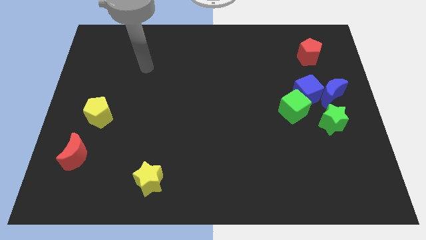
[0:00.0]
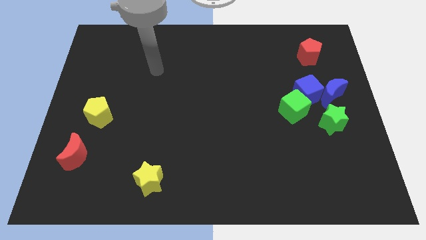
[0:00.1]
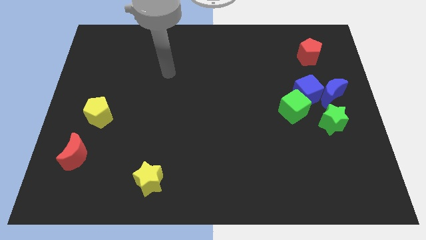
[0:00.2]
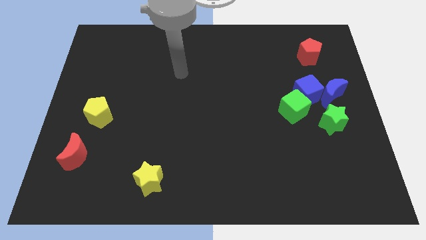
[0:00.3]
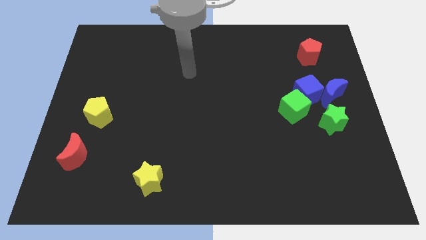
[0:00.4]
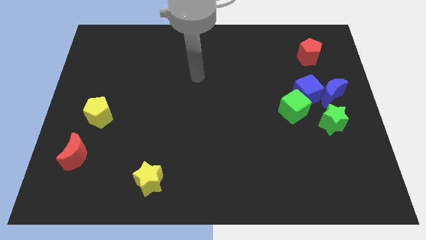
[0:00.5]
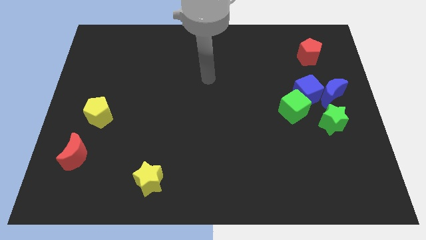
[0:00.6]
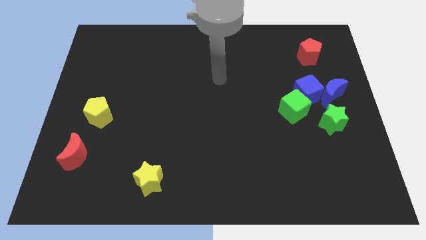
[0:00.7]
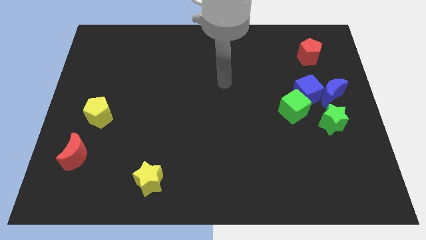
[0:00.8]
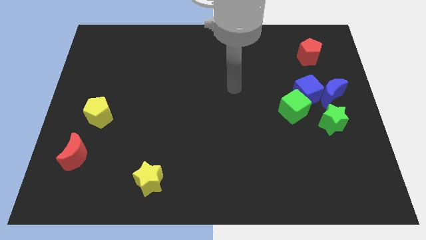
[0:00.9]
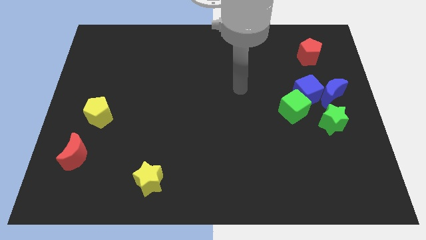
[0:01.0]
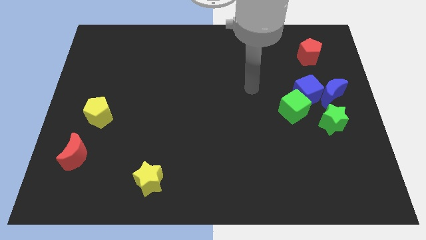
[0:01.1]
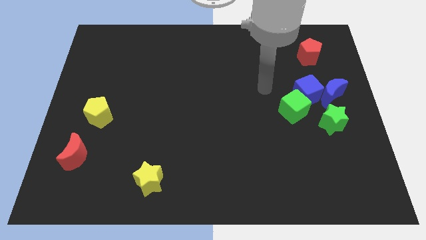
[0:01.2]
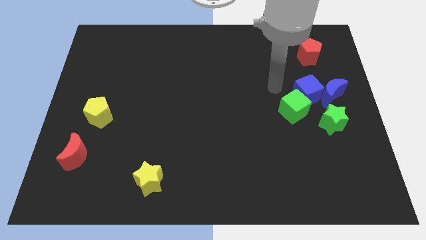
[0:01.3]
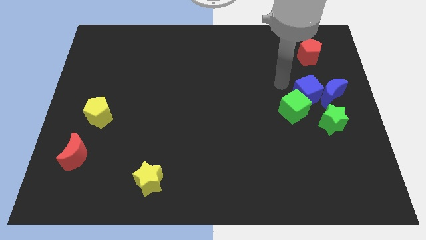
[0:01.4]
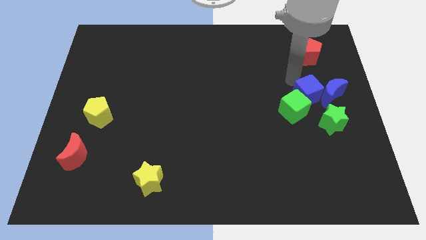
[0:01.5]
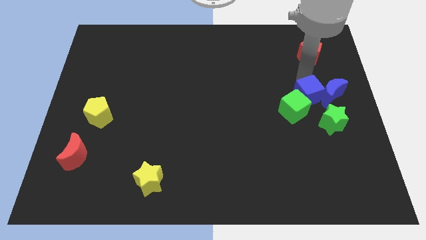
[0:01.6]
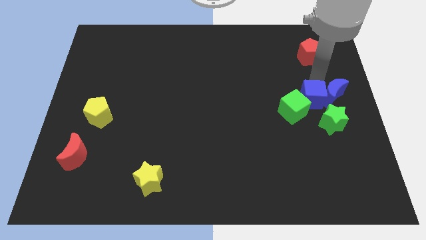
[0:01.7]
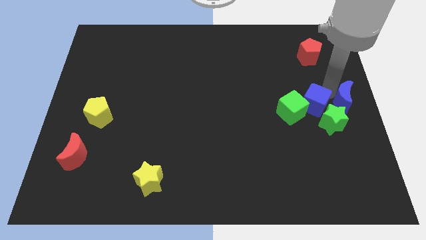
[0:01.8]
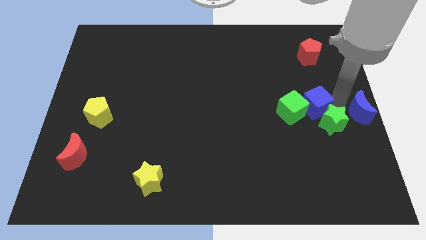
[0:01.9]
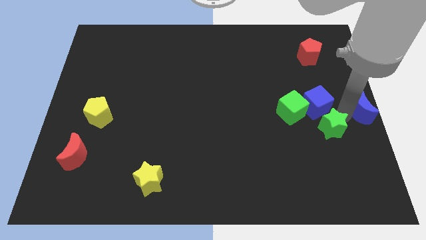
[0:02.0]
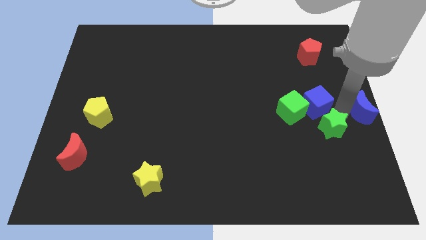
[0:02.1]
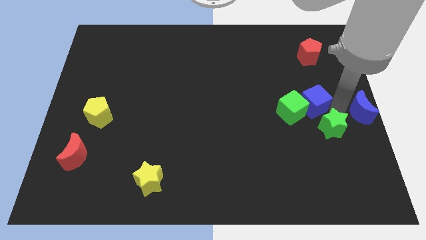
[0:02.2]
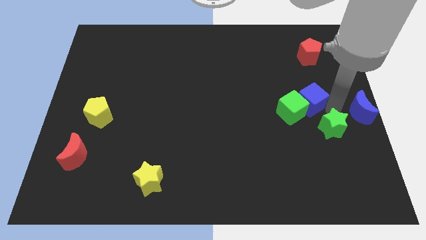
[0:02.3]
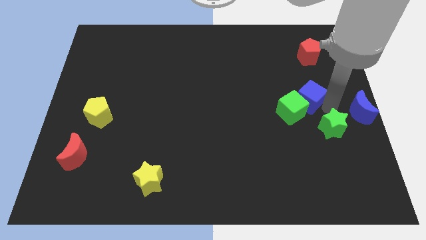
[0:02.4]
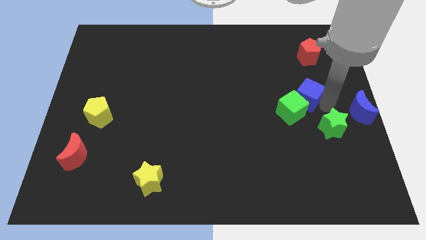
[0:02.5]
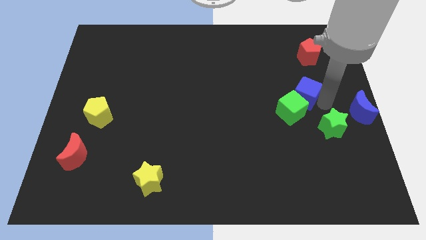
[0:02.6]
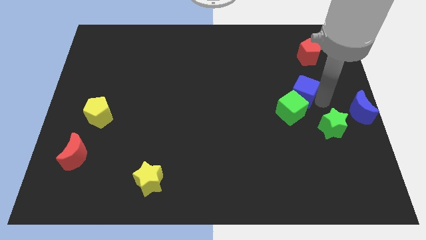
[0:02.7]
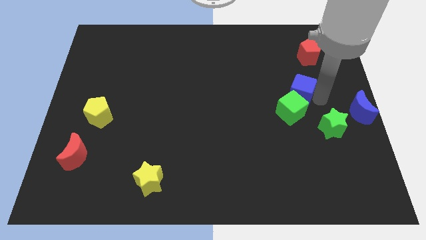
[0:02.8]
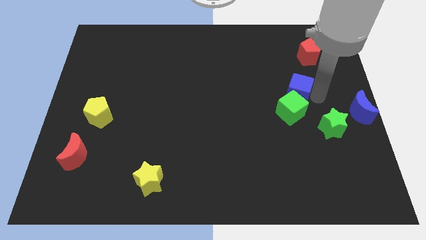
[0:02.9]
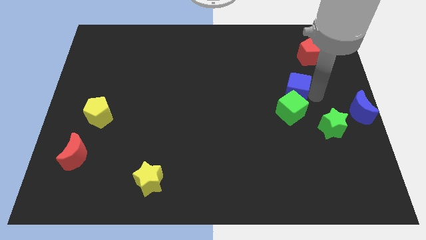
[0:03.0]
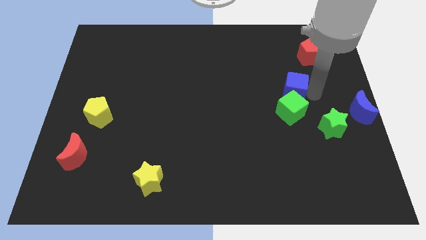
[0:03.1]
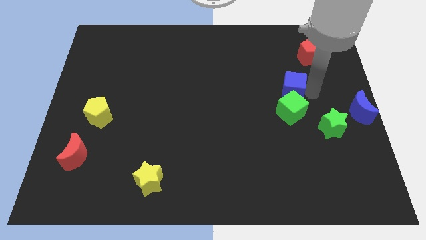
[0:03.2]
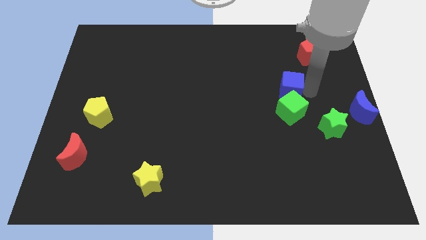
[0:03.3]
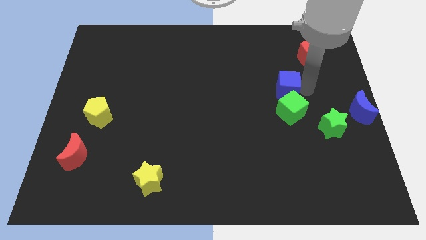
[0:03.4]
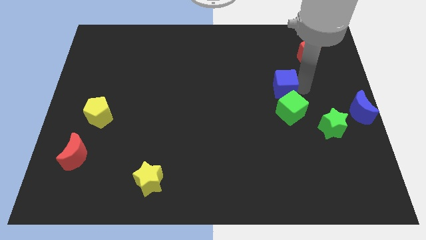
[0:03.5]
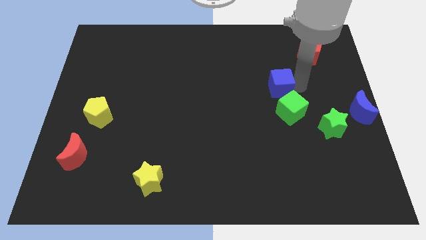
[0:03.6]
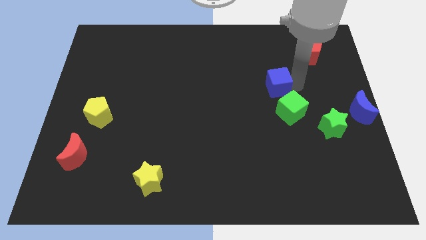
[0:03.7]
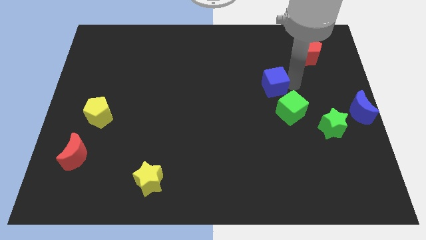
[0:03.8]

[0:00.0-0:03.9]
move the blue cube left a little bit

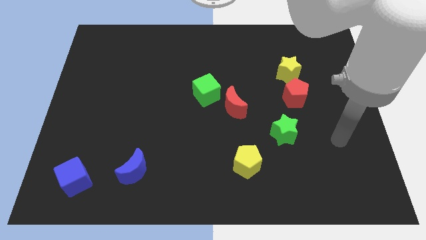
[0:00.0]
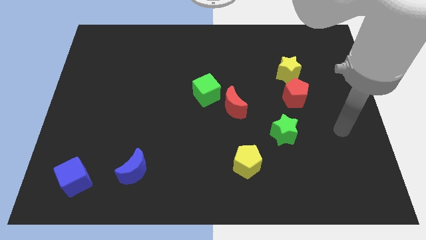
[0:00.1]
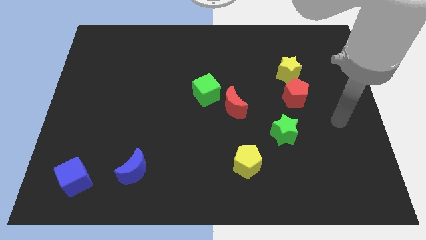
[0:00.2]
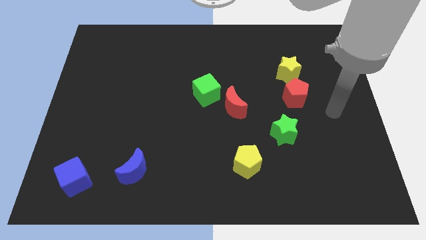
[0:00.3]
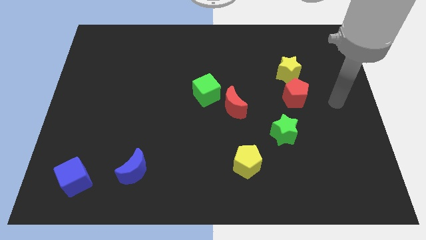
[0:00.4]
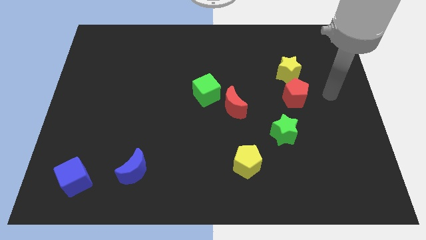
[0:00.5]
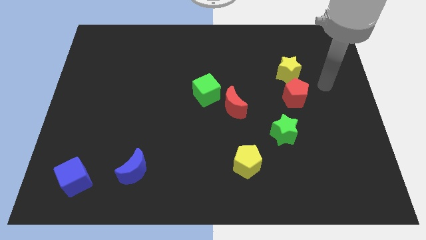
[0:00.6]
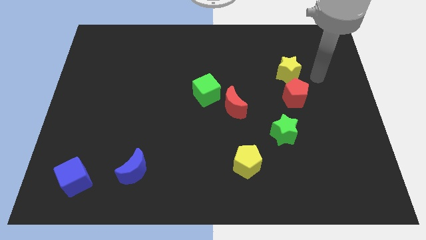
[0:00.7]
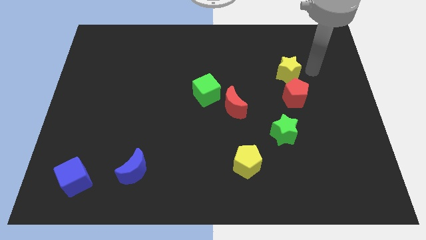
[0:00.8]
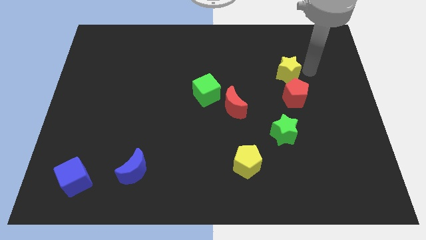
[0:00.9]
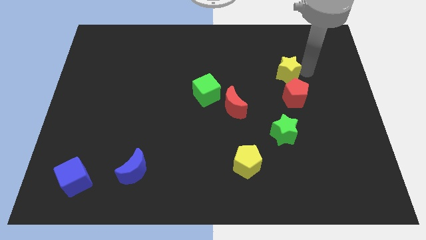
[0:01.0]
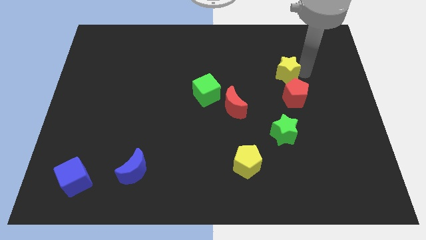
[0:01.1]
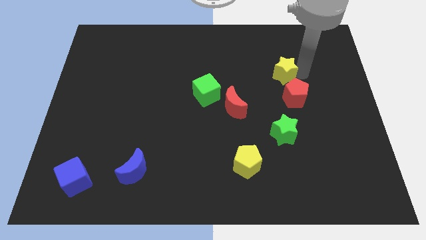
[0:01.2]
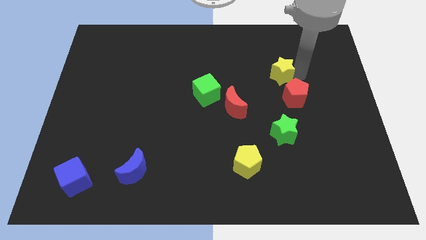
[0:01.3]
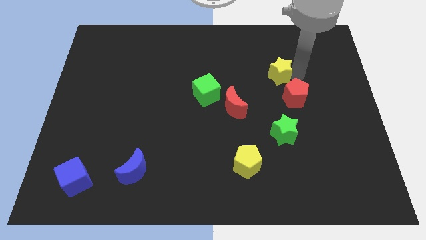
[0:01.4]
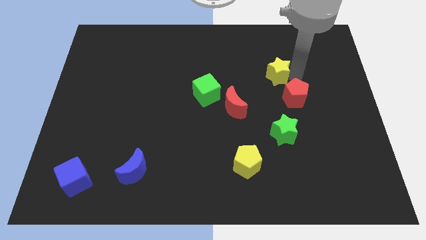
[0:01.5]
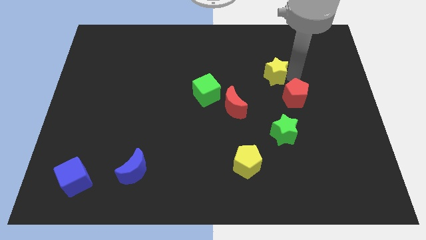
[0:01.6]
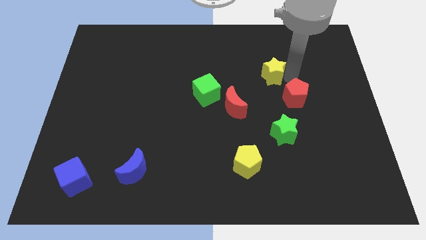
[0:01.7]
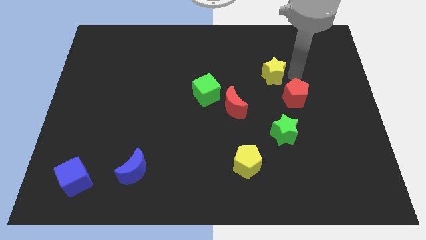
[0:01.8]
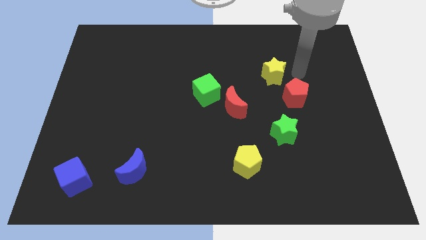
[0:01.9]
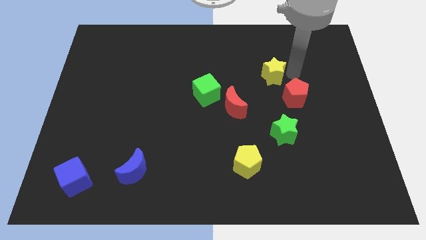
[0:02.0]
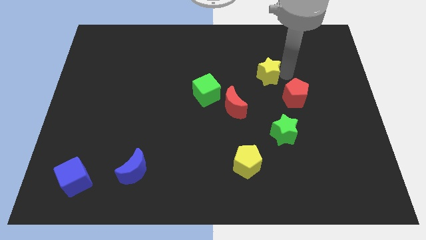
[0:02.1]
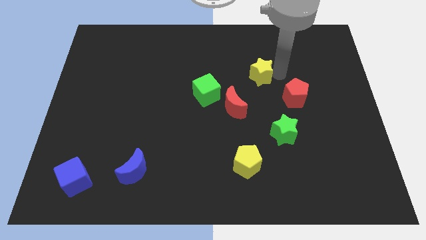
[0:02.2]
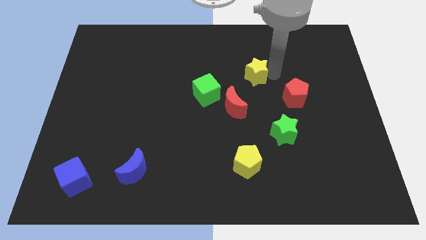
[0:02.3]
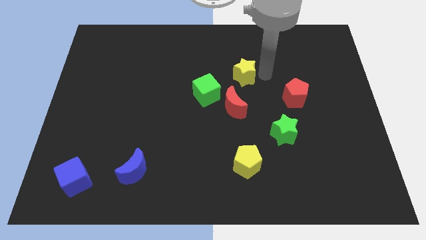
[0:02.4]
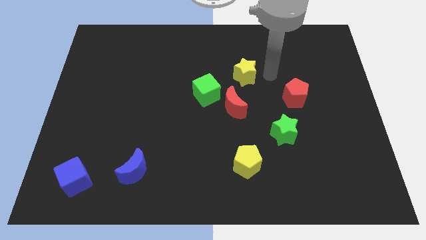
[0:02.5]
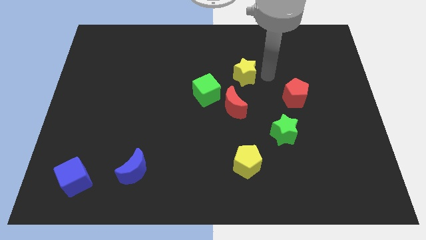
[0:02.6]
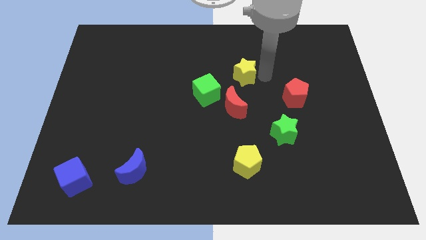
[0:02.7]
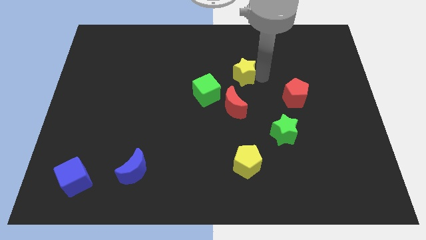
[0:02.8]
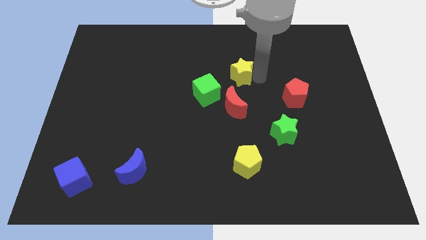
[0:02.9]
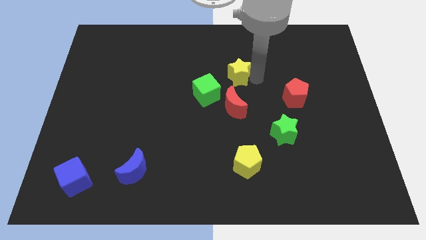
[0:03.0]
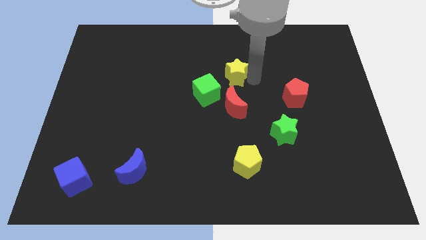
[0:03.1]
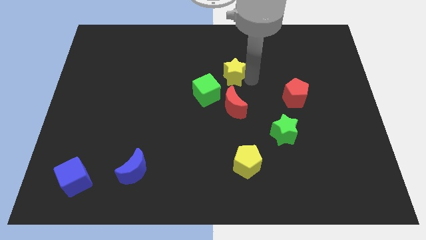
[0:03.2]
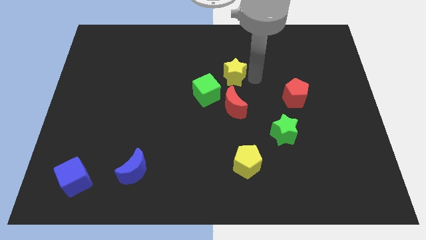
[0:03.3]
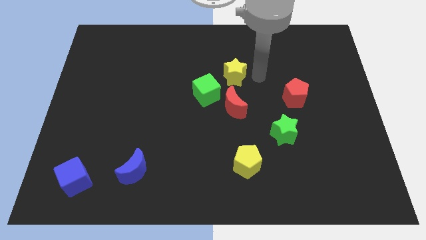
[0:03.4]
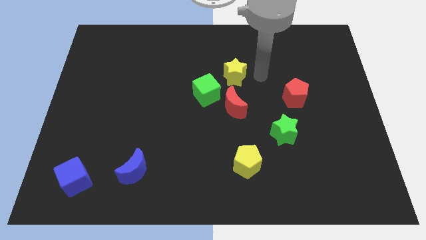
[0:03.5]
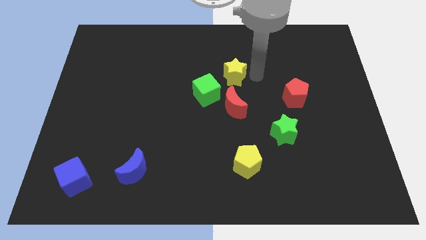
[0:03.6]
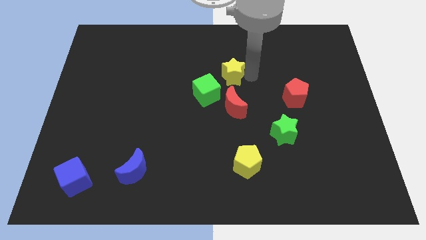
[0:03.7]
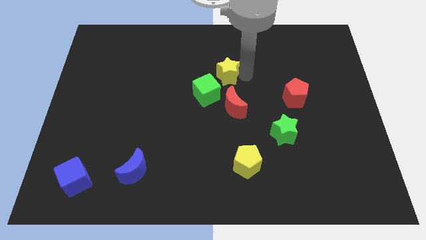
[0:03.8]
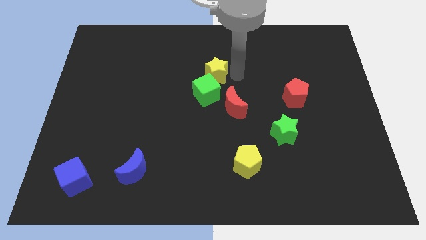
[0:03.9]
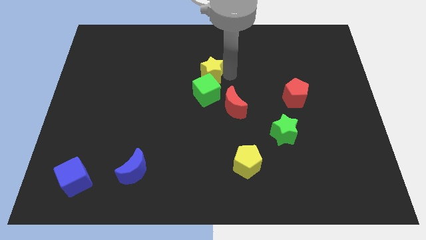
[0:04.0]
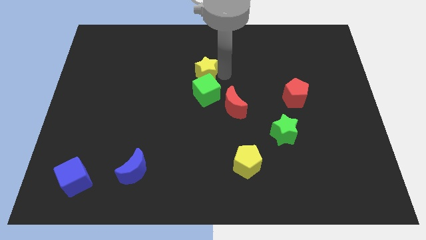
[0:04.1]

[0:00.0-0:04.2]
slide the yellow star to the left
